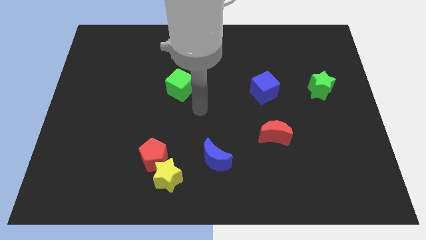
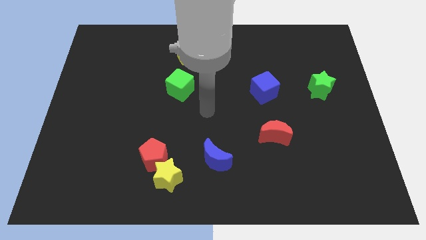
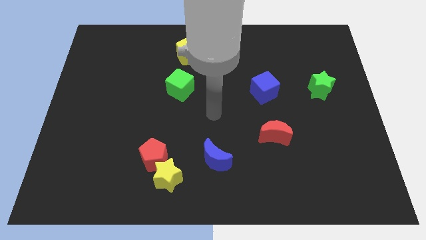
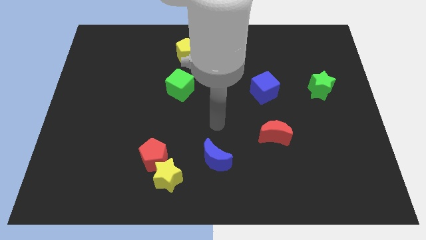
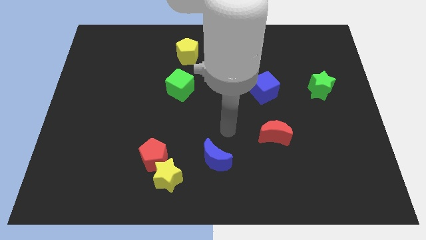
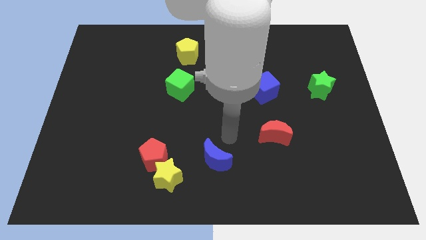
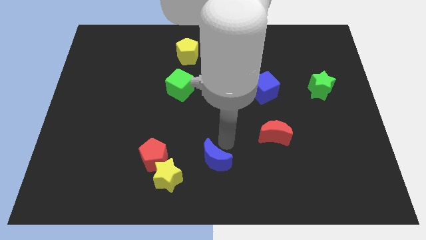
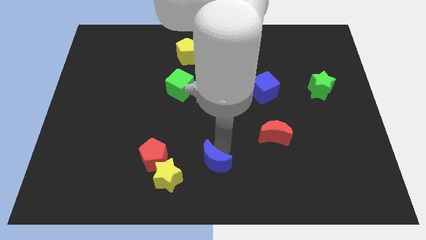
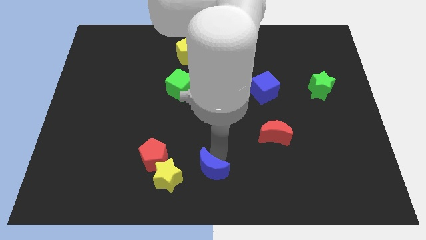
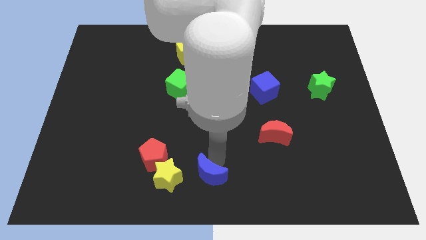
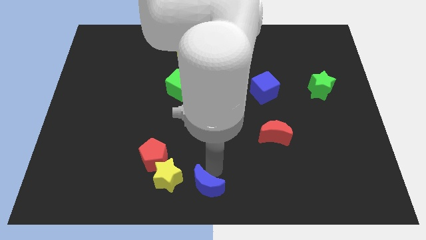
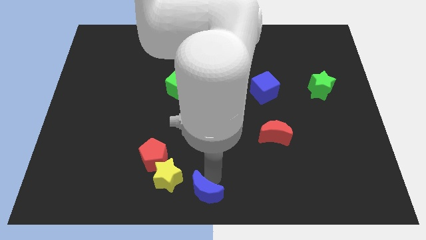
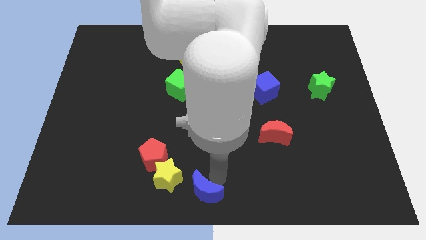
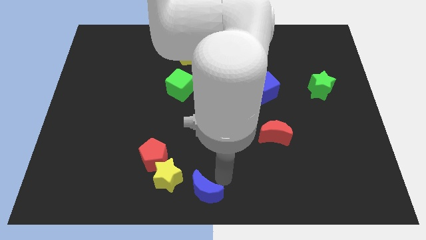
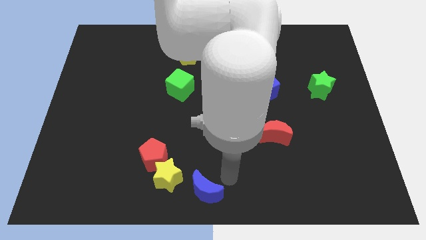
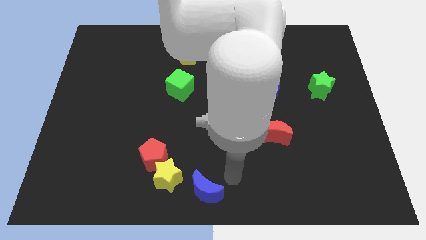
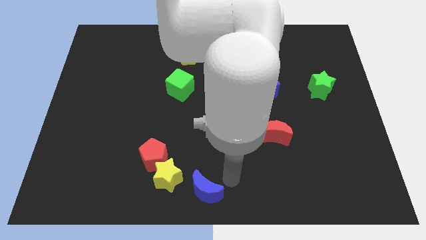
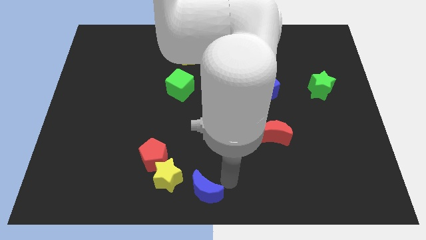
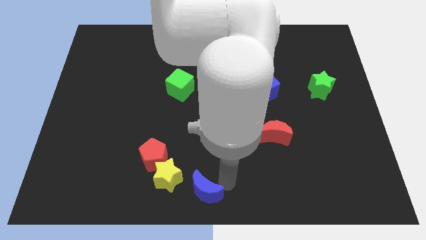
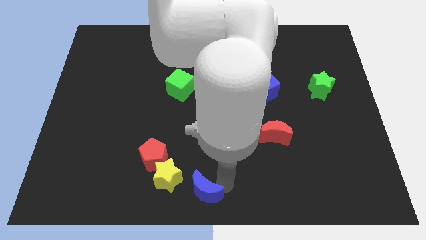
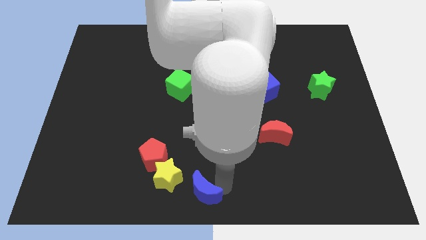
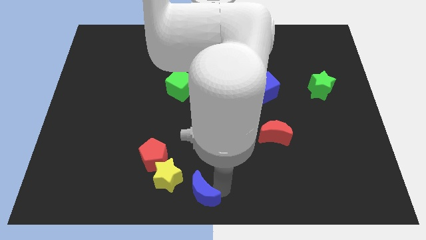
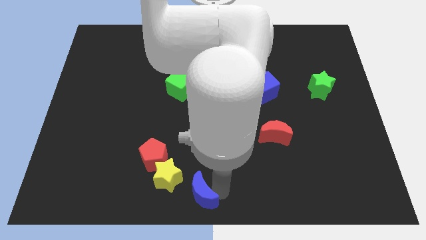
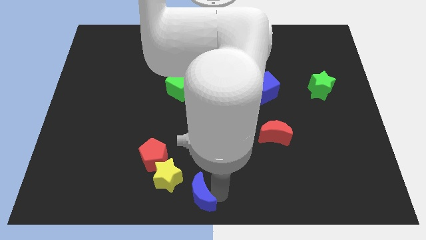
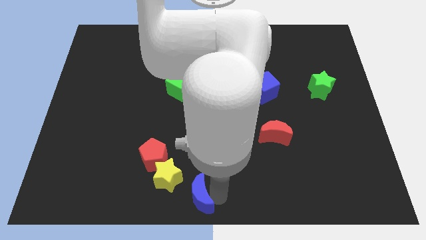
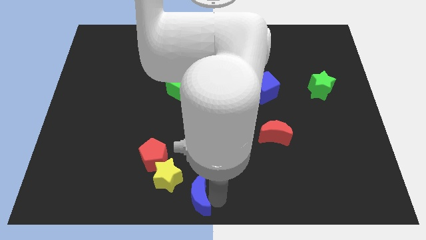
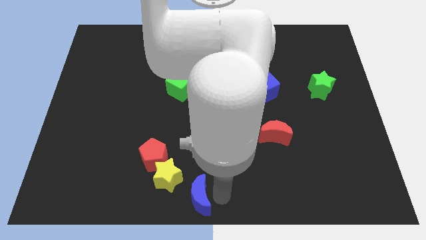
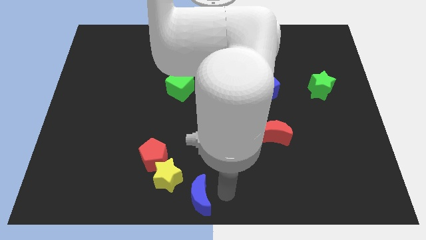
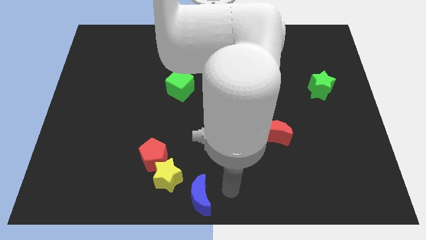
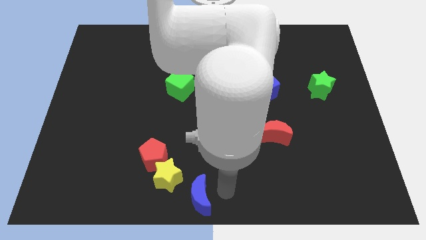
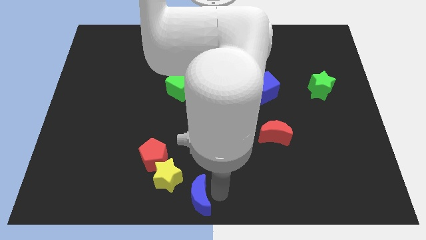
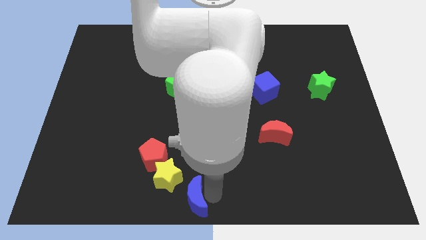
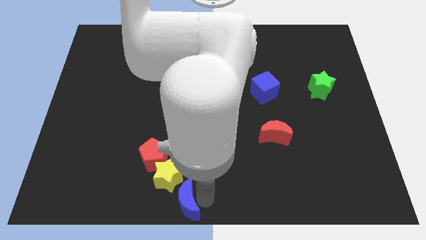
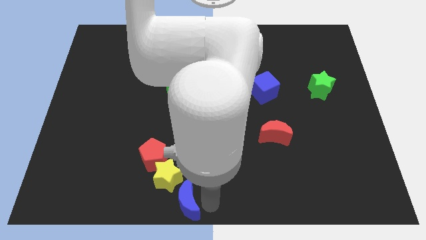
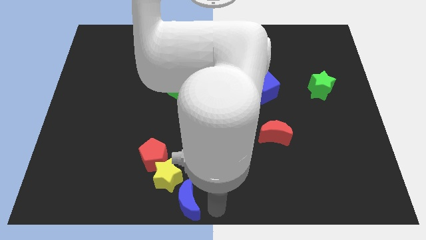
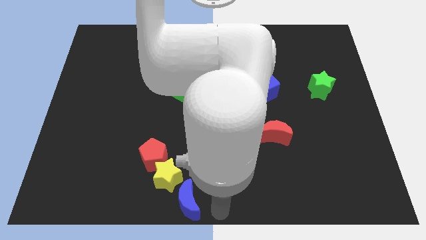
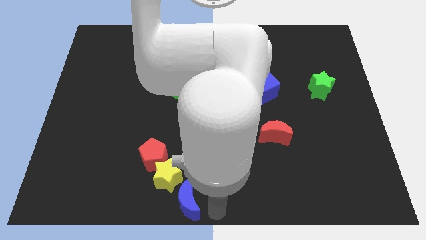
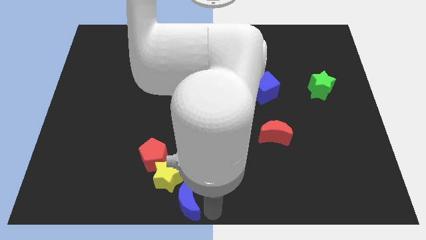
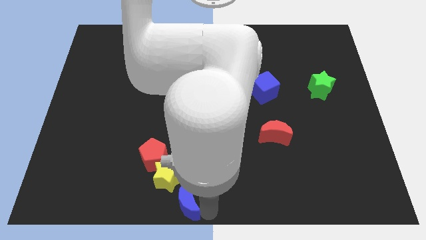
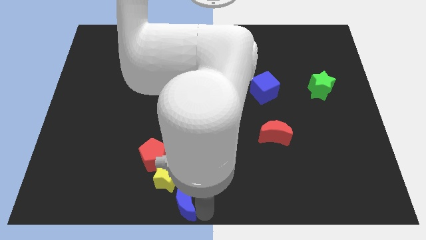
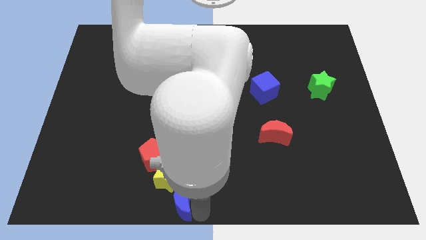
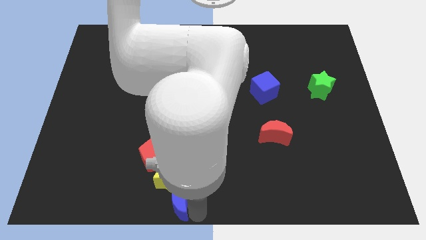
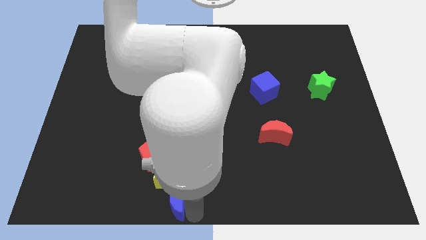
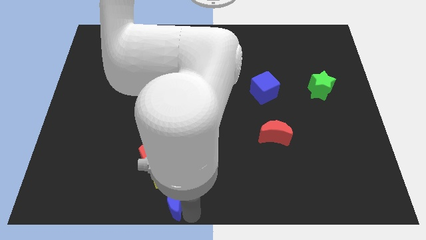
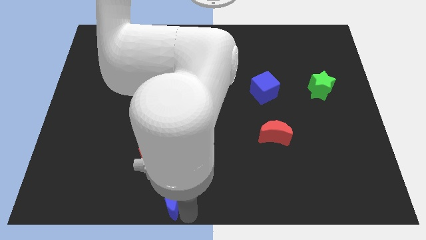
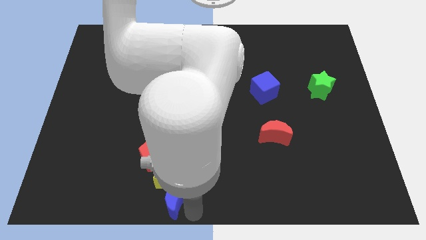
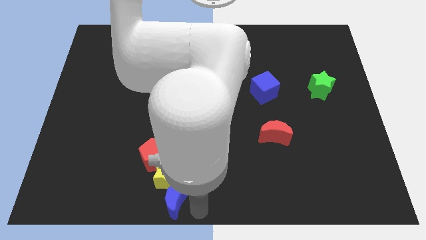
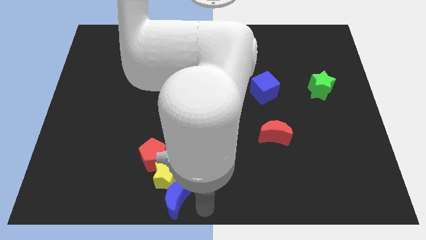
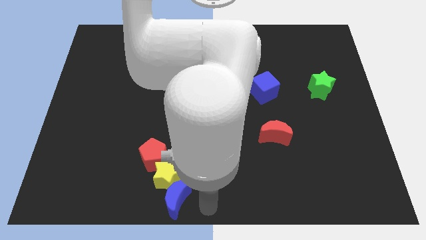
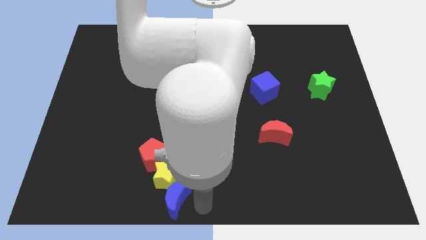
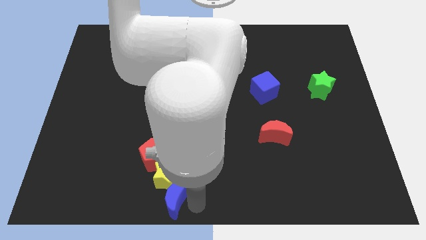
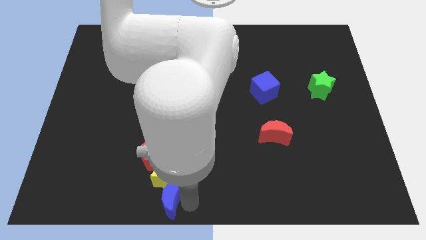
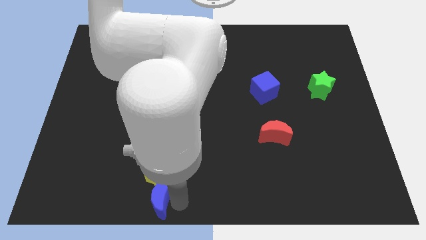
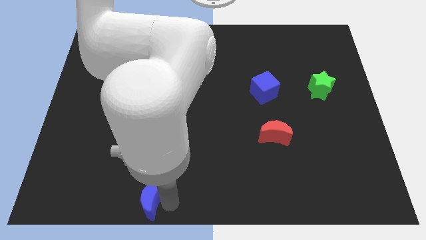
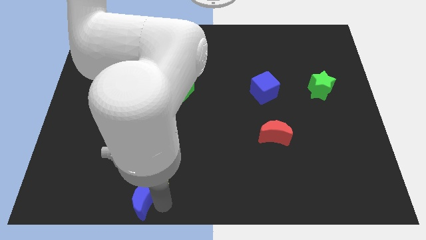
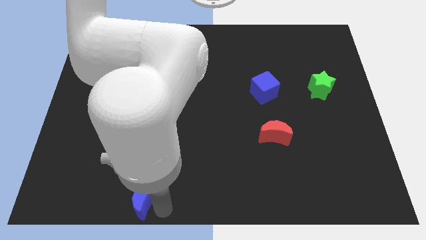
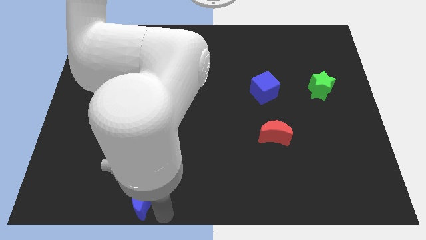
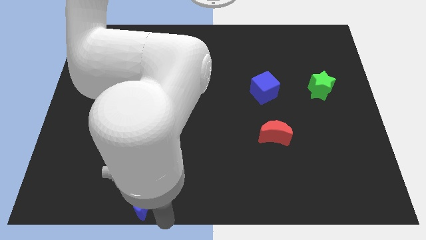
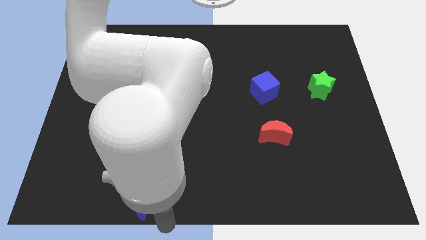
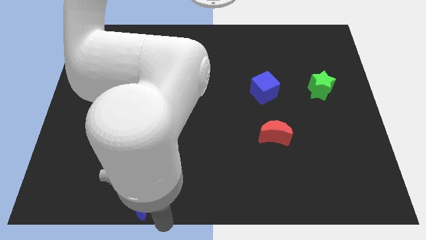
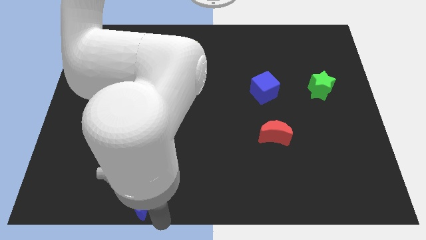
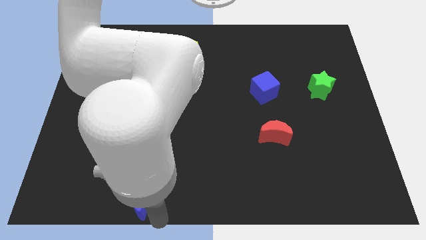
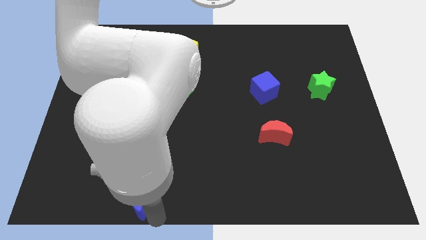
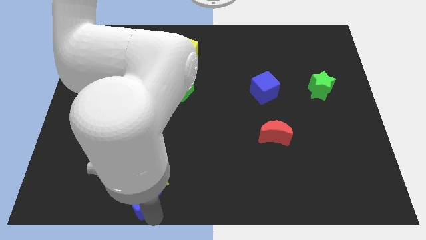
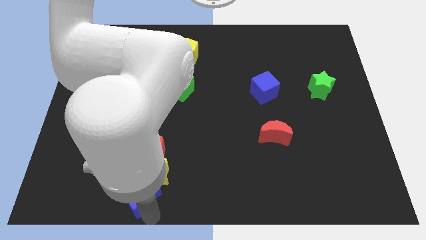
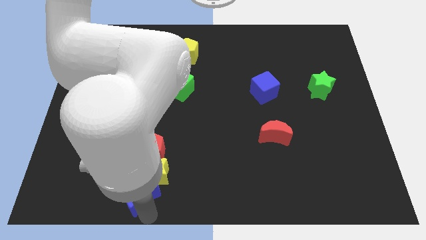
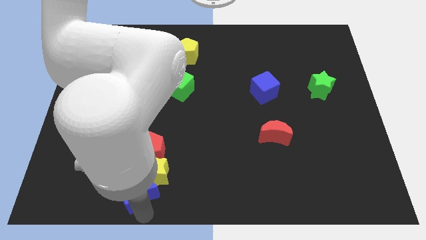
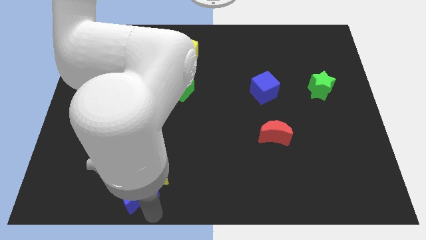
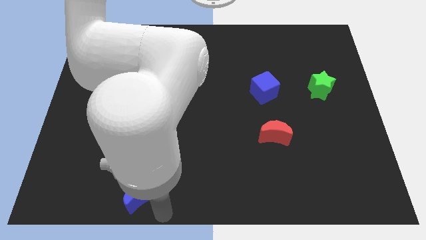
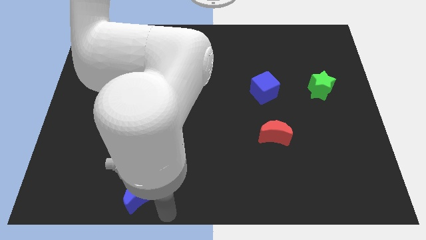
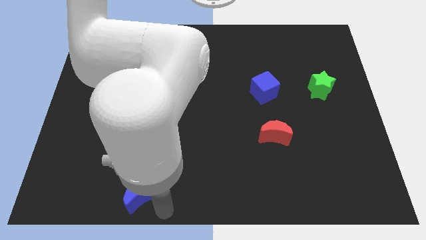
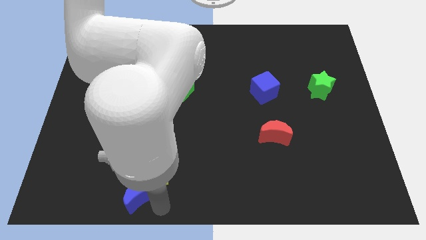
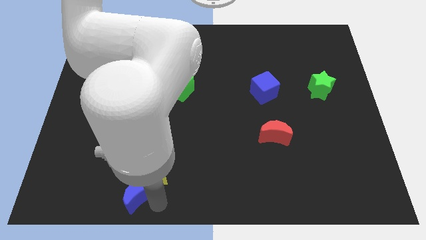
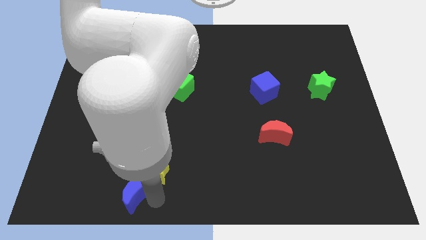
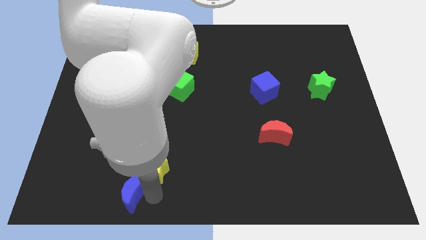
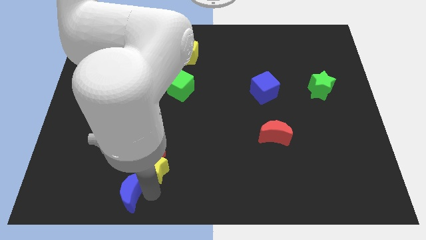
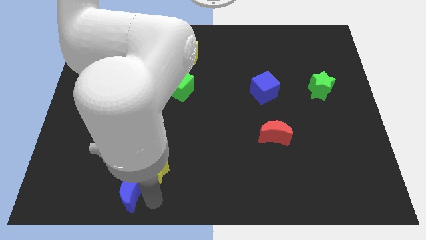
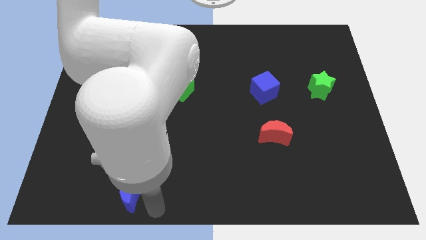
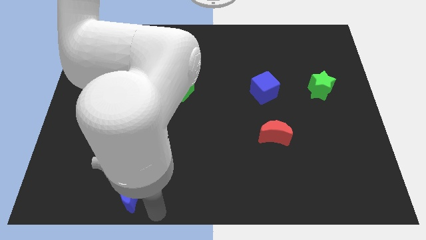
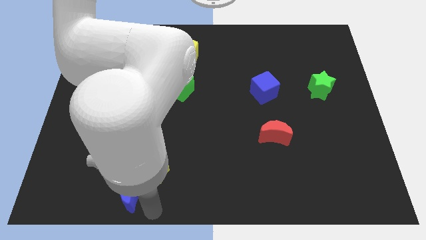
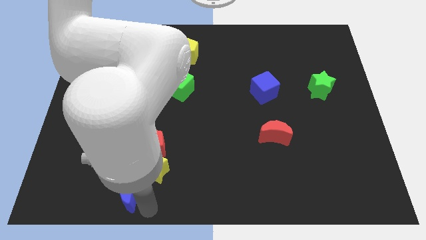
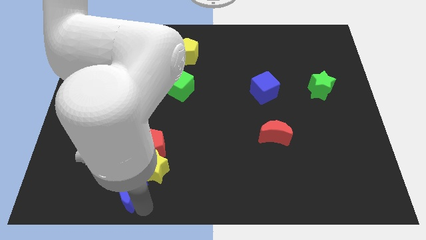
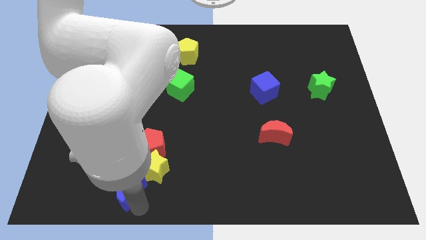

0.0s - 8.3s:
move the blue moon just left of the yellow star
